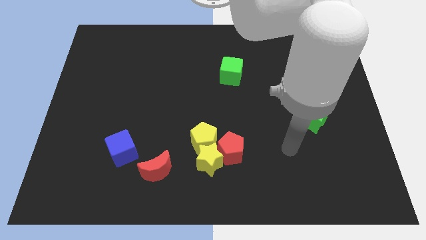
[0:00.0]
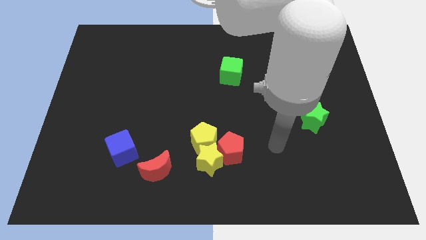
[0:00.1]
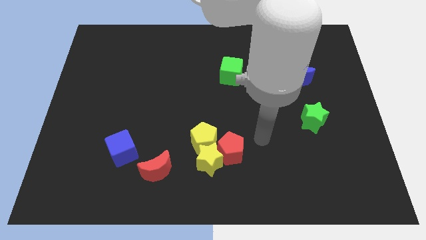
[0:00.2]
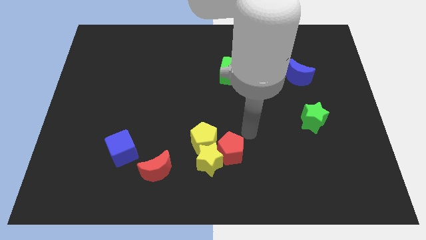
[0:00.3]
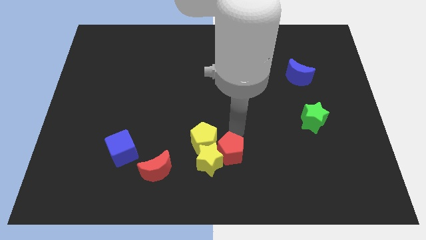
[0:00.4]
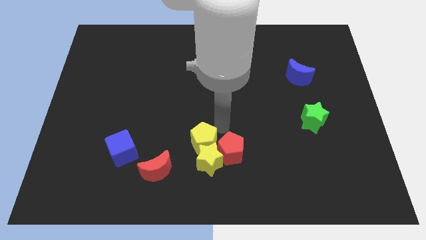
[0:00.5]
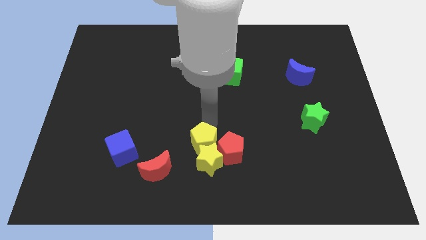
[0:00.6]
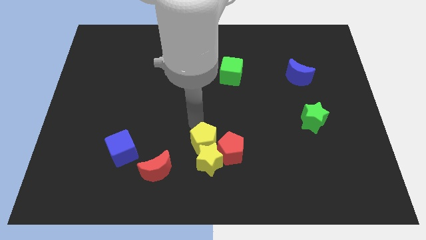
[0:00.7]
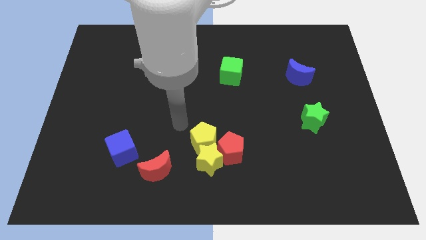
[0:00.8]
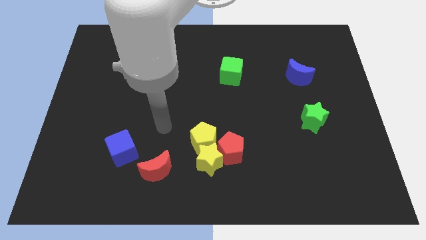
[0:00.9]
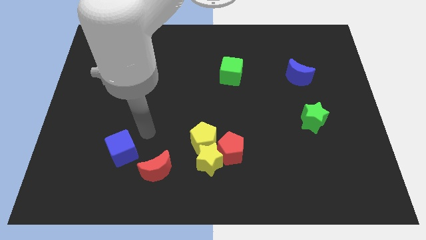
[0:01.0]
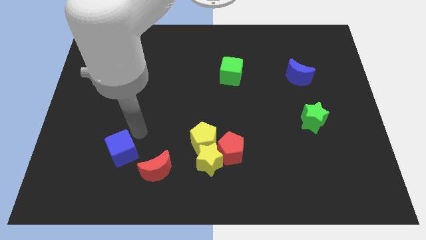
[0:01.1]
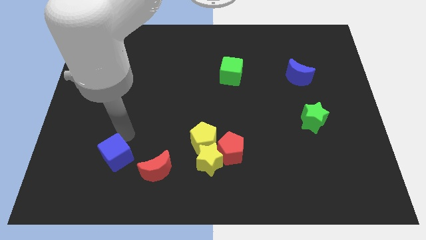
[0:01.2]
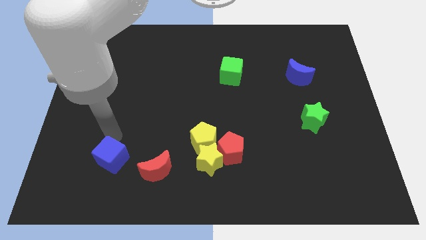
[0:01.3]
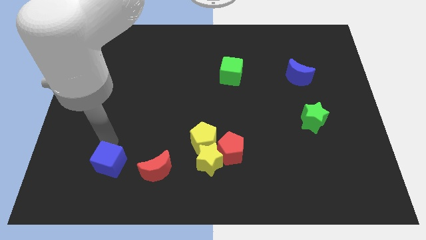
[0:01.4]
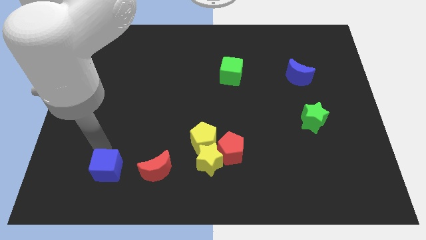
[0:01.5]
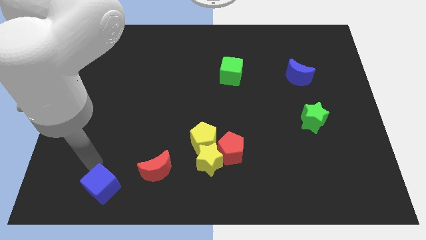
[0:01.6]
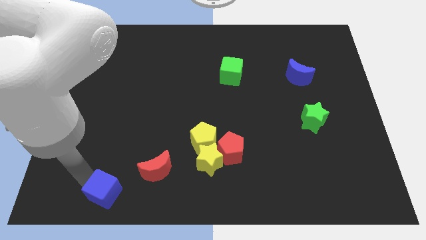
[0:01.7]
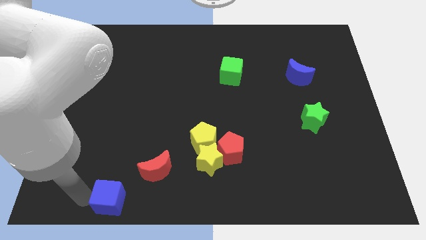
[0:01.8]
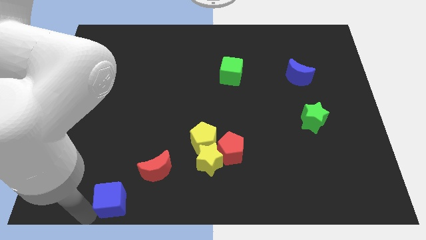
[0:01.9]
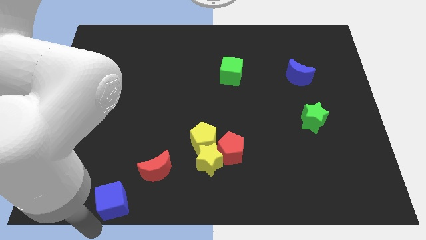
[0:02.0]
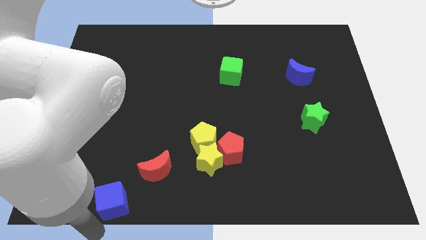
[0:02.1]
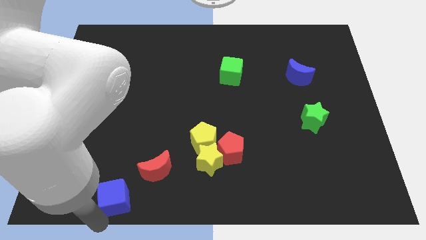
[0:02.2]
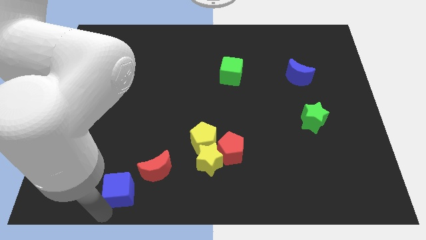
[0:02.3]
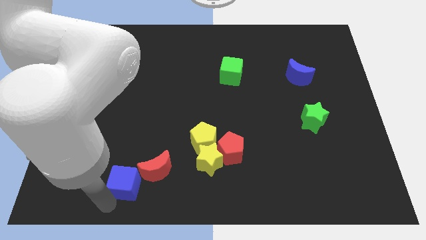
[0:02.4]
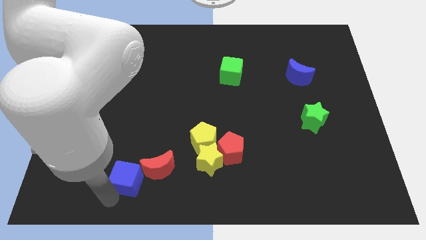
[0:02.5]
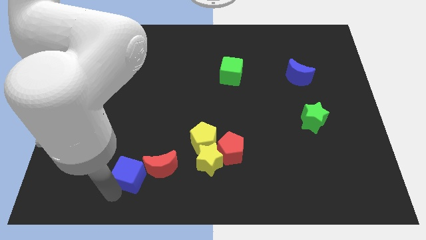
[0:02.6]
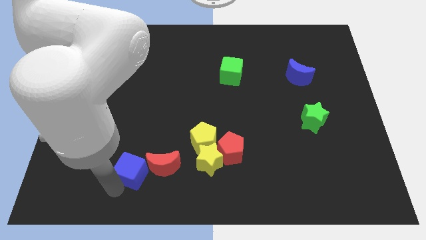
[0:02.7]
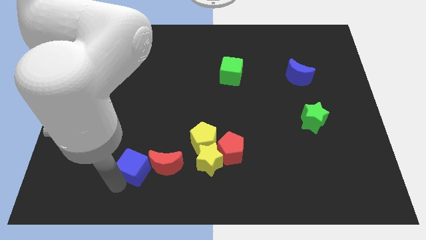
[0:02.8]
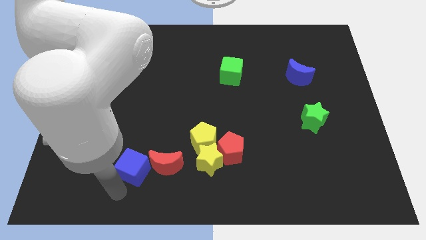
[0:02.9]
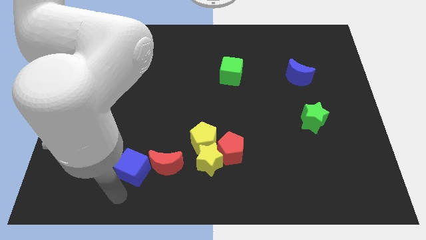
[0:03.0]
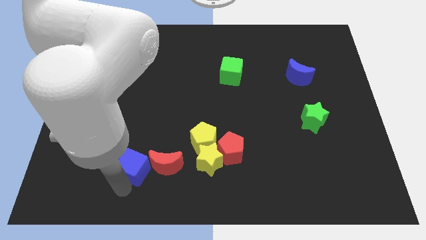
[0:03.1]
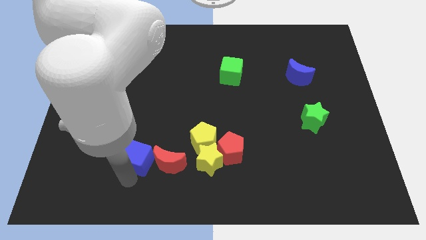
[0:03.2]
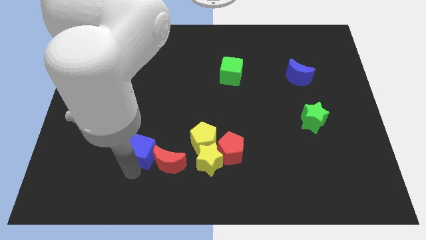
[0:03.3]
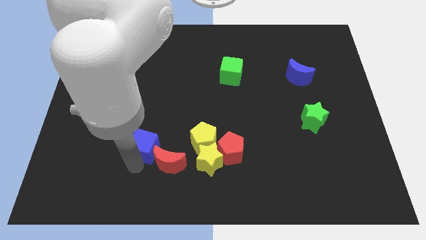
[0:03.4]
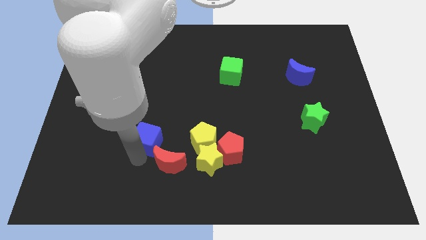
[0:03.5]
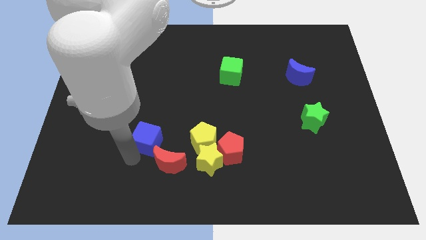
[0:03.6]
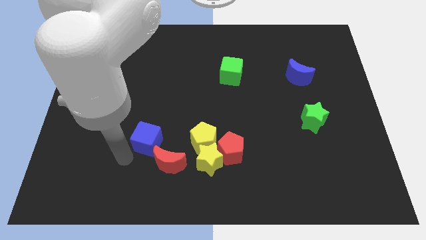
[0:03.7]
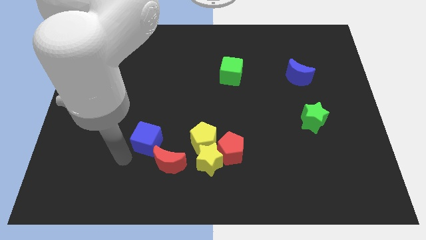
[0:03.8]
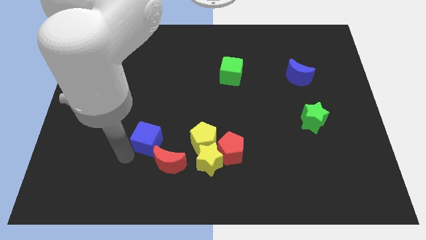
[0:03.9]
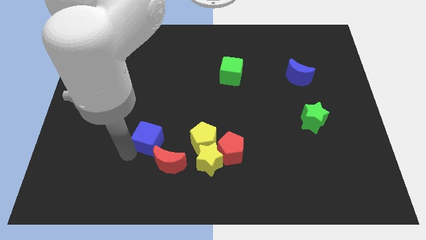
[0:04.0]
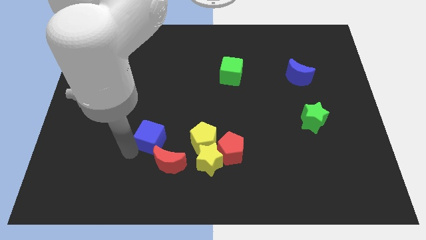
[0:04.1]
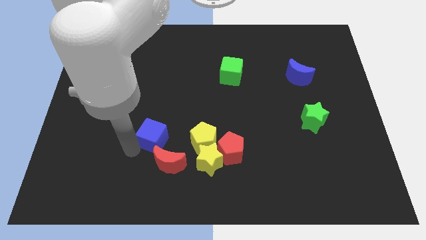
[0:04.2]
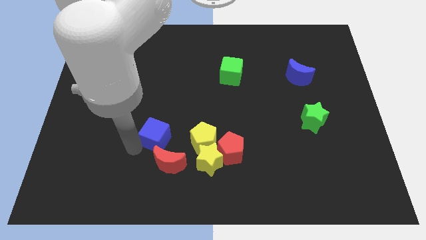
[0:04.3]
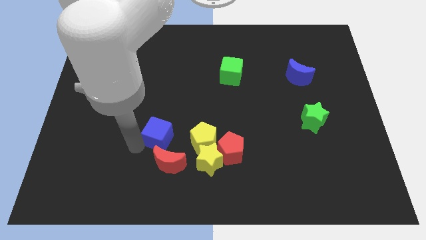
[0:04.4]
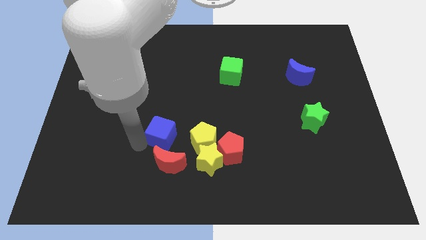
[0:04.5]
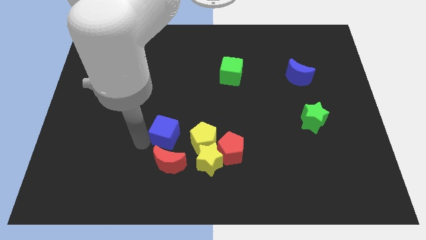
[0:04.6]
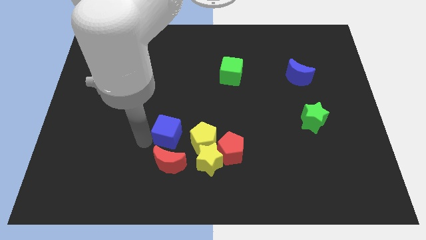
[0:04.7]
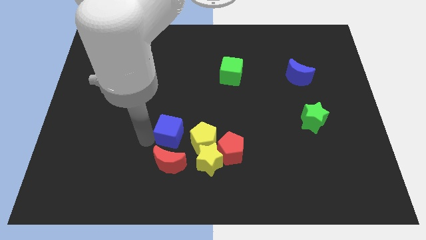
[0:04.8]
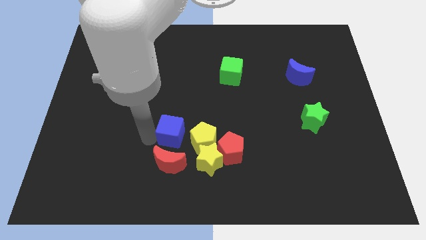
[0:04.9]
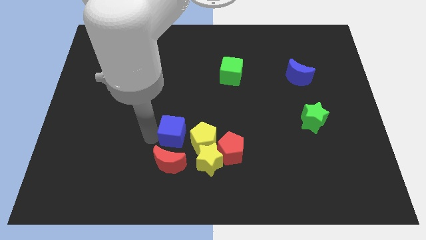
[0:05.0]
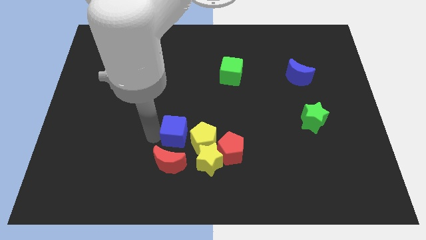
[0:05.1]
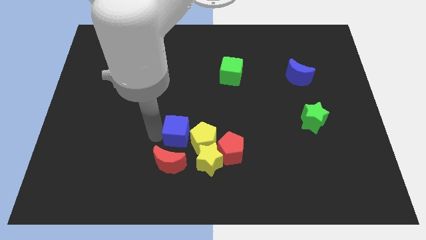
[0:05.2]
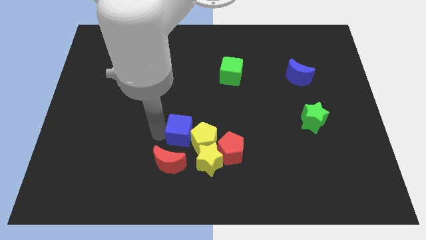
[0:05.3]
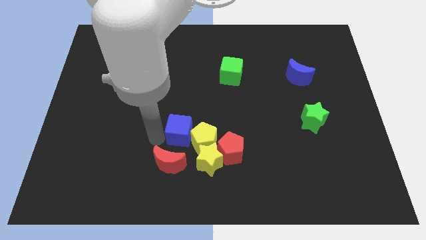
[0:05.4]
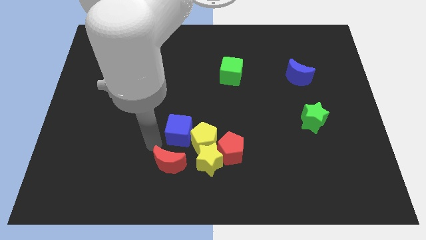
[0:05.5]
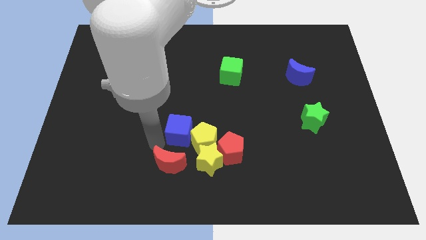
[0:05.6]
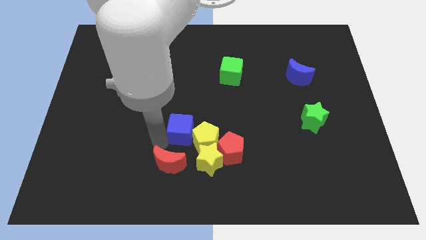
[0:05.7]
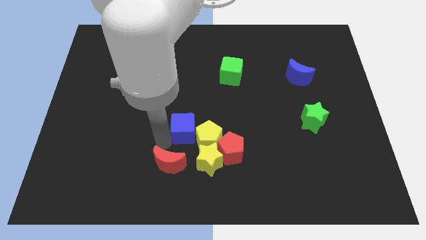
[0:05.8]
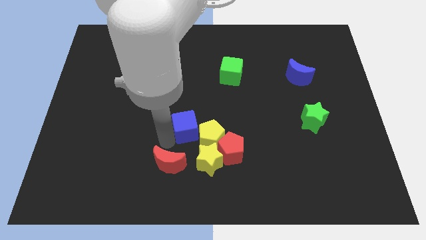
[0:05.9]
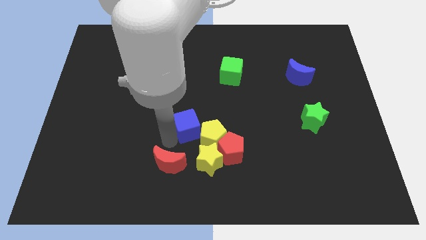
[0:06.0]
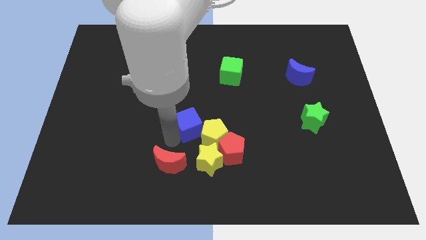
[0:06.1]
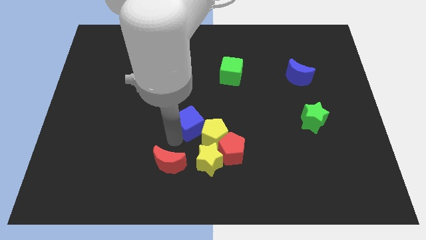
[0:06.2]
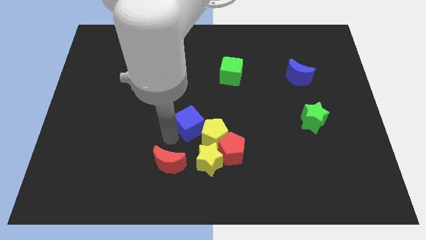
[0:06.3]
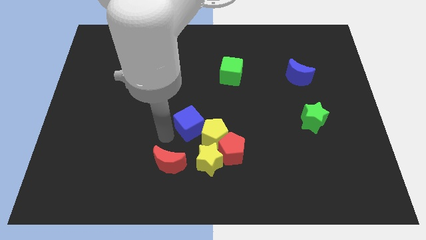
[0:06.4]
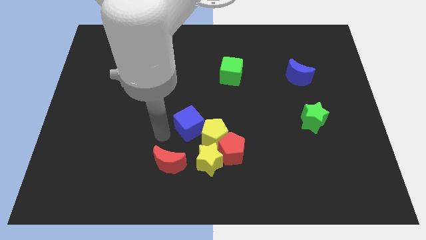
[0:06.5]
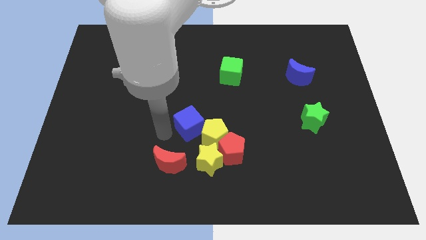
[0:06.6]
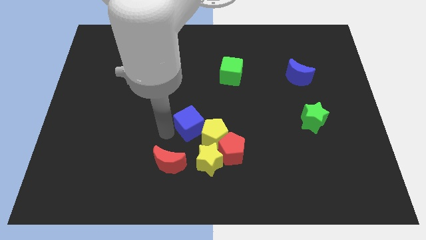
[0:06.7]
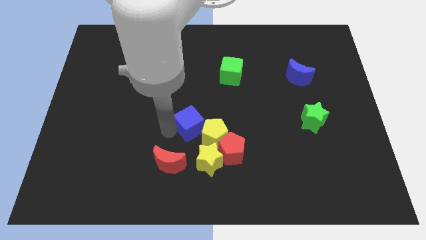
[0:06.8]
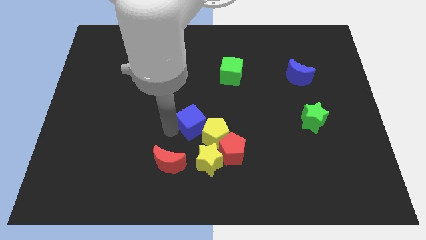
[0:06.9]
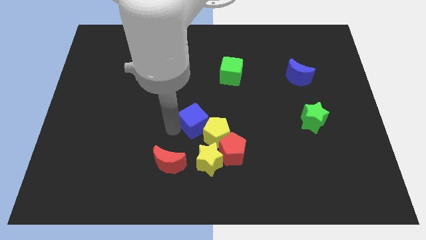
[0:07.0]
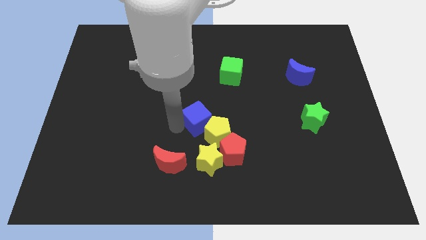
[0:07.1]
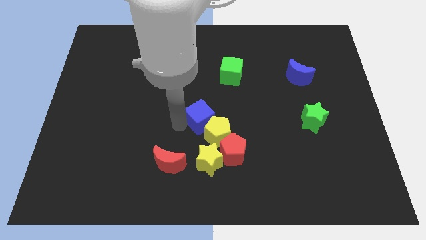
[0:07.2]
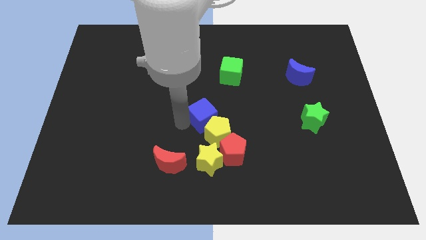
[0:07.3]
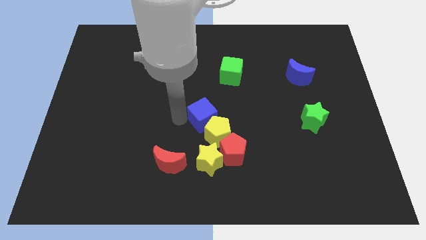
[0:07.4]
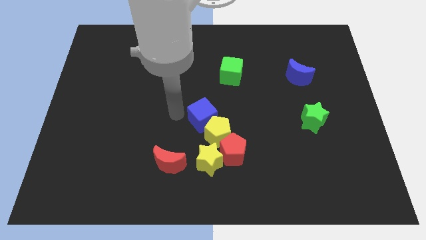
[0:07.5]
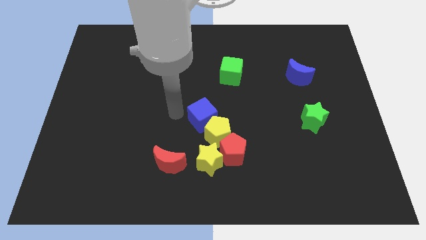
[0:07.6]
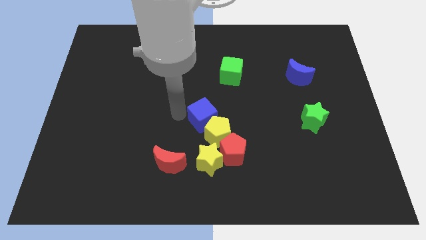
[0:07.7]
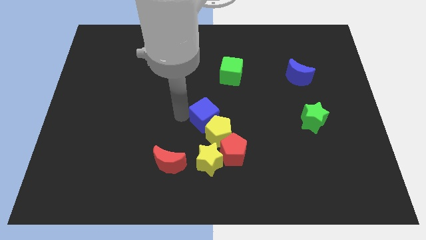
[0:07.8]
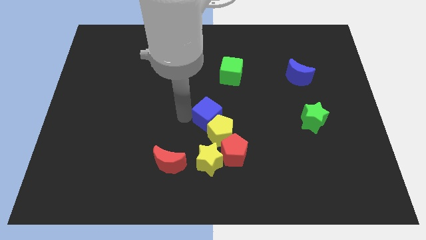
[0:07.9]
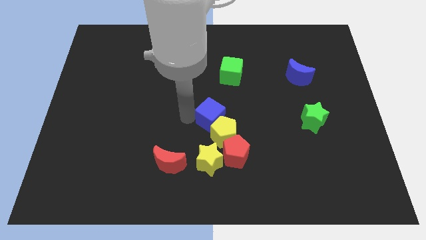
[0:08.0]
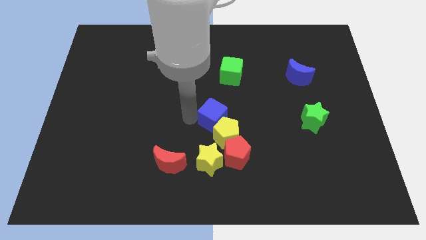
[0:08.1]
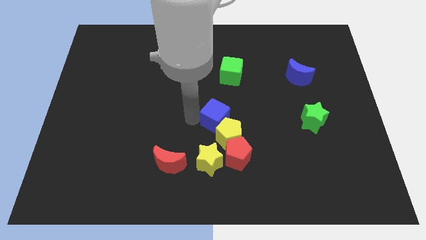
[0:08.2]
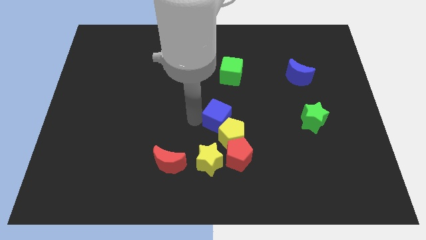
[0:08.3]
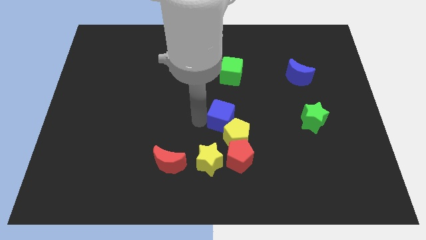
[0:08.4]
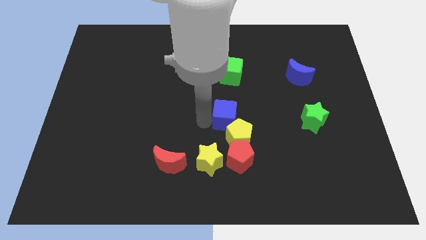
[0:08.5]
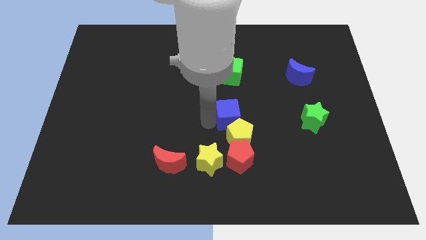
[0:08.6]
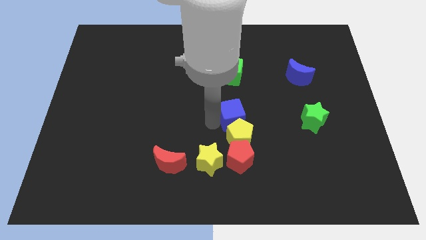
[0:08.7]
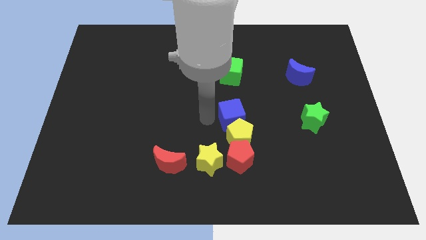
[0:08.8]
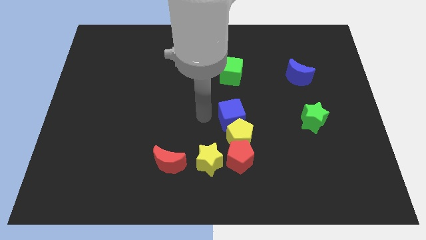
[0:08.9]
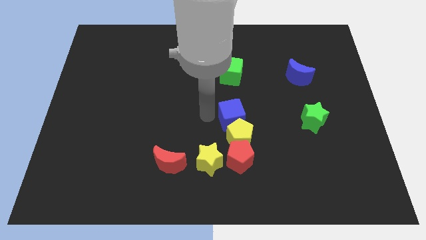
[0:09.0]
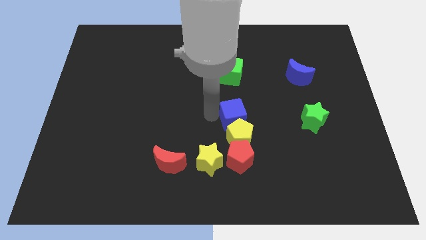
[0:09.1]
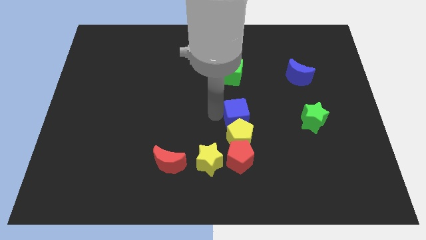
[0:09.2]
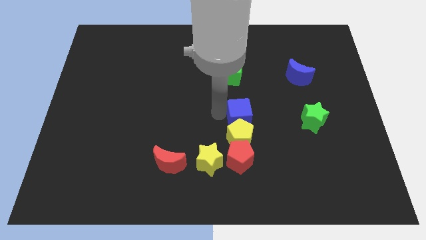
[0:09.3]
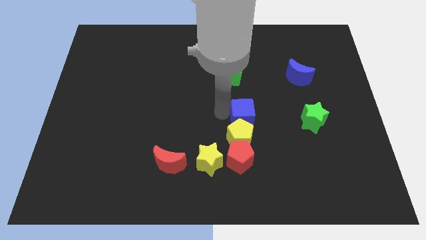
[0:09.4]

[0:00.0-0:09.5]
slide the blue cube to the left side of the green star
